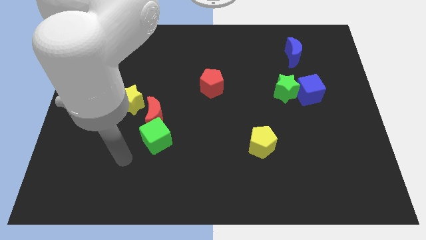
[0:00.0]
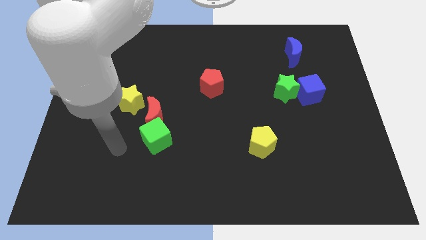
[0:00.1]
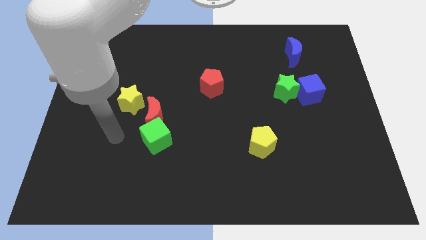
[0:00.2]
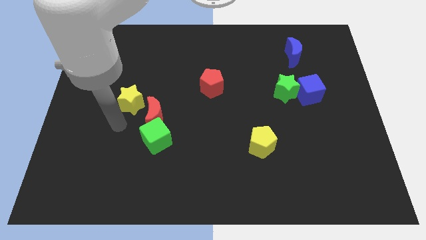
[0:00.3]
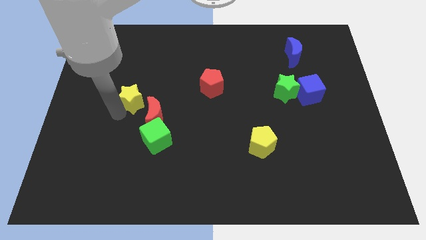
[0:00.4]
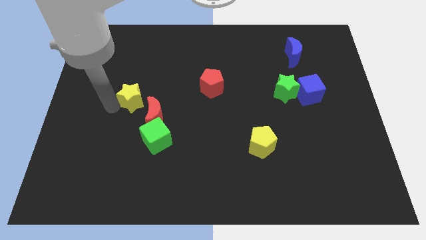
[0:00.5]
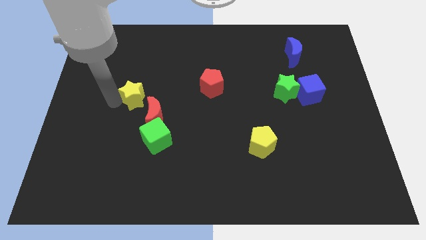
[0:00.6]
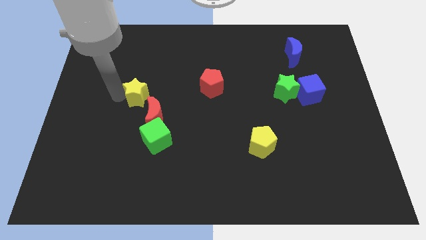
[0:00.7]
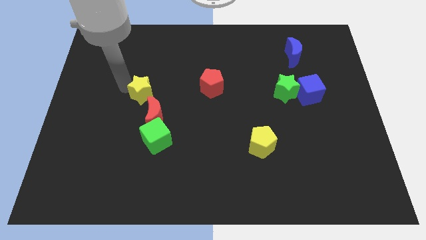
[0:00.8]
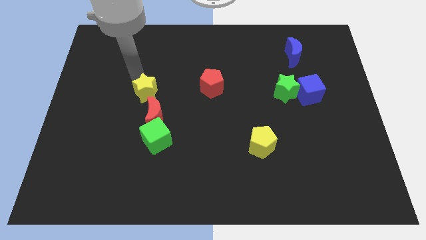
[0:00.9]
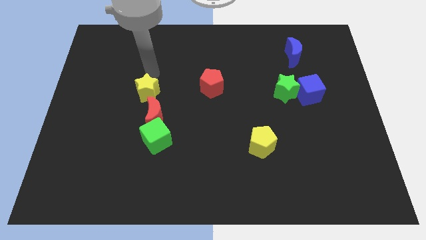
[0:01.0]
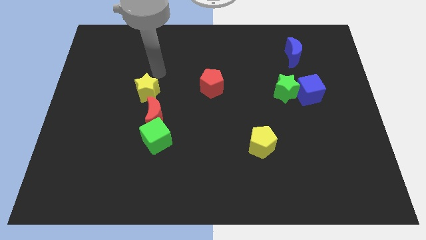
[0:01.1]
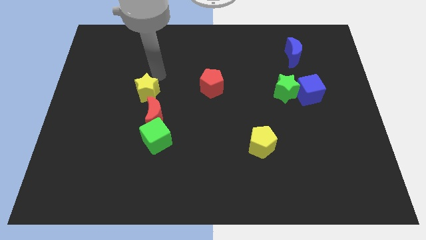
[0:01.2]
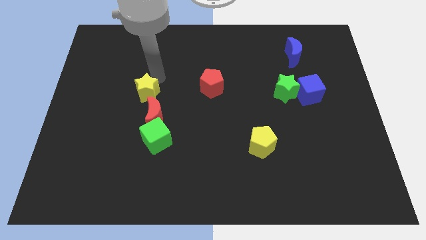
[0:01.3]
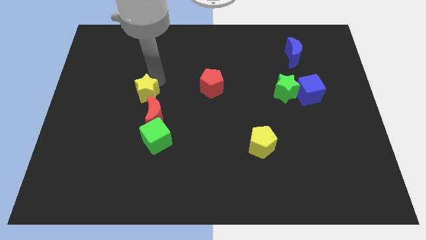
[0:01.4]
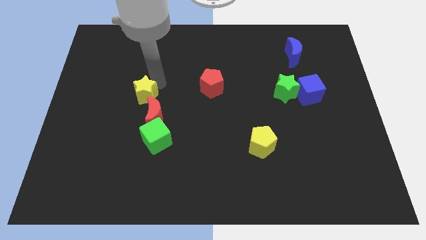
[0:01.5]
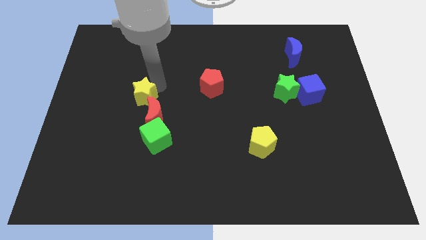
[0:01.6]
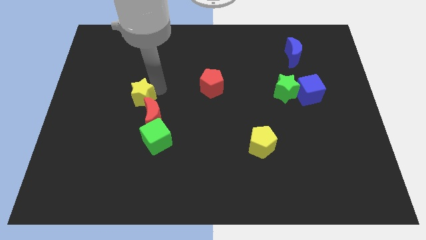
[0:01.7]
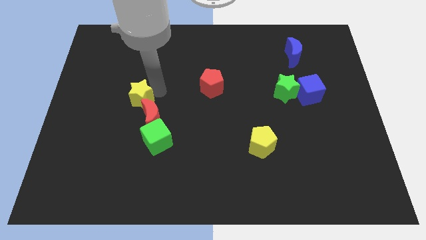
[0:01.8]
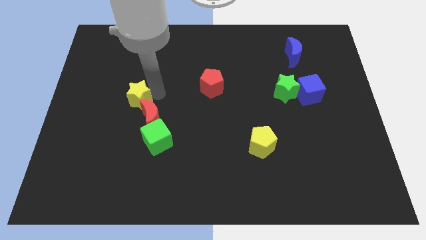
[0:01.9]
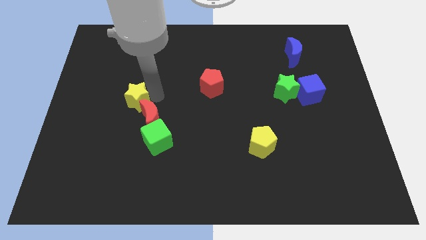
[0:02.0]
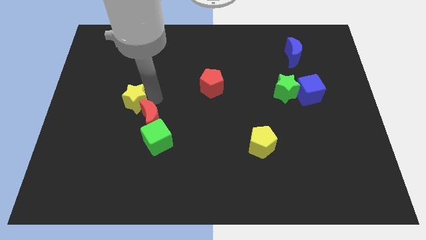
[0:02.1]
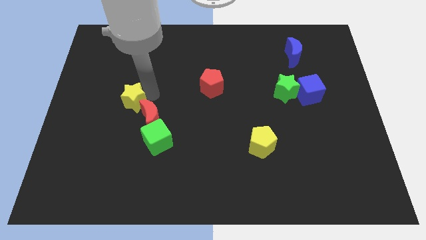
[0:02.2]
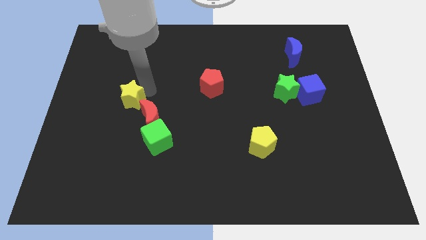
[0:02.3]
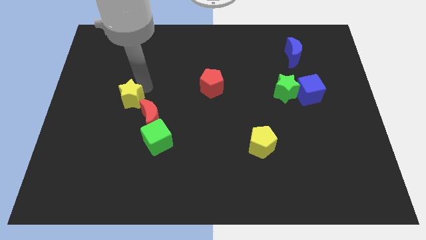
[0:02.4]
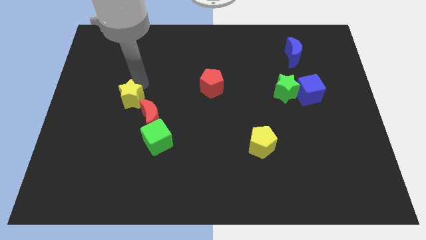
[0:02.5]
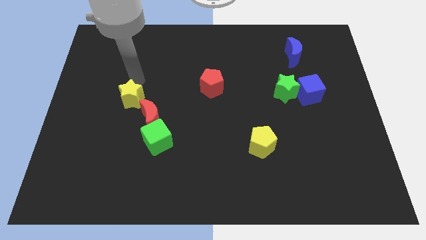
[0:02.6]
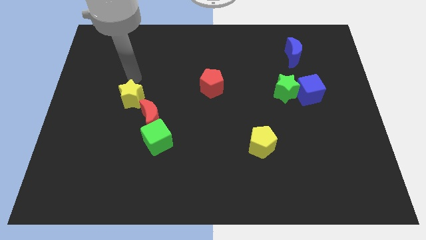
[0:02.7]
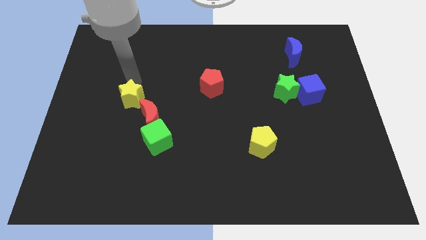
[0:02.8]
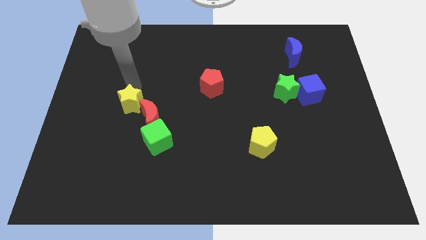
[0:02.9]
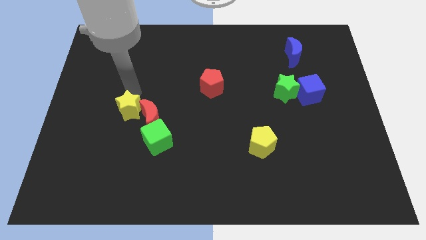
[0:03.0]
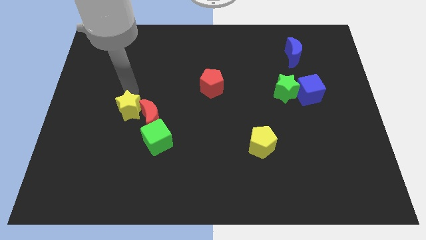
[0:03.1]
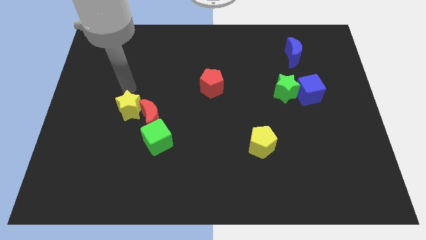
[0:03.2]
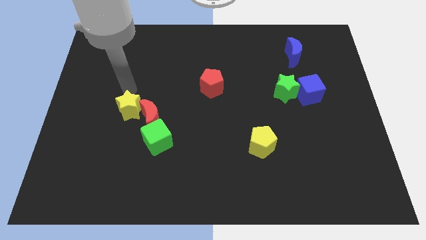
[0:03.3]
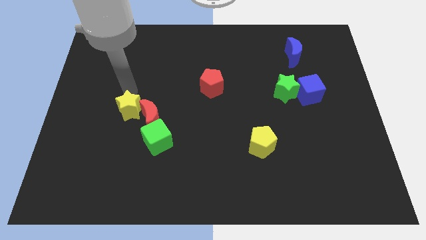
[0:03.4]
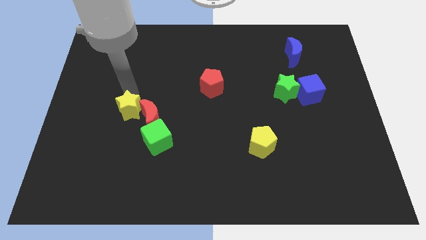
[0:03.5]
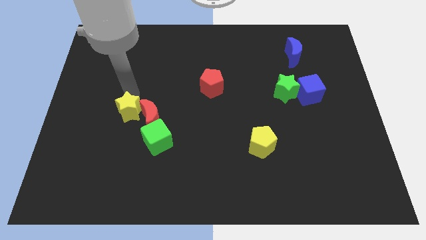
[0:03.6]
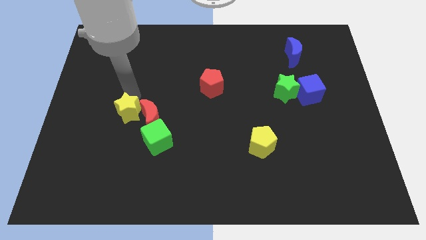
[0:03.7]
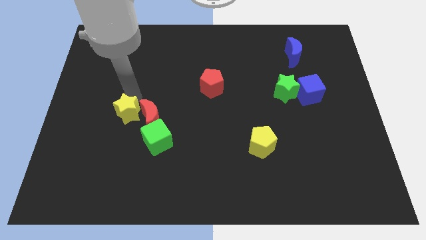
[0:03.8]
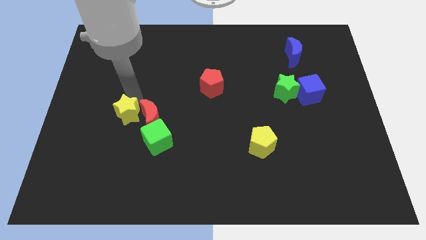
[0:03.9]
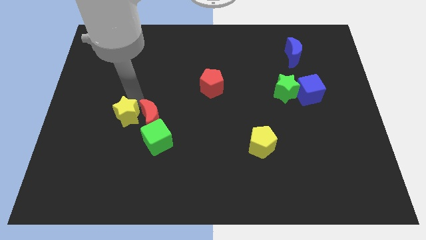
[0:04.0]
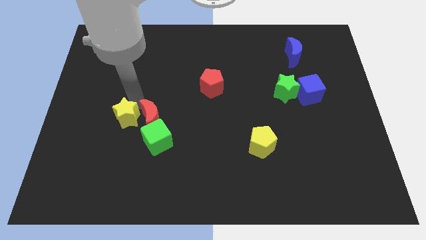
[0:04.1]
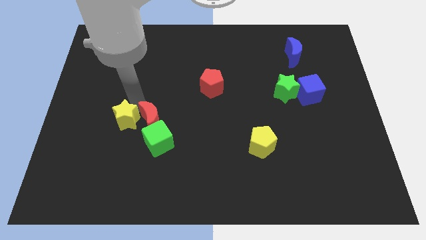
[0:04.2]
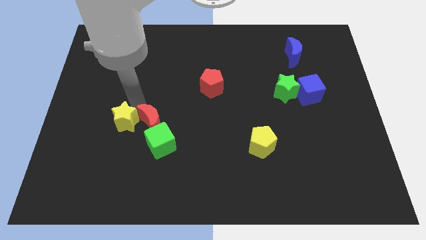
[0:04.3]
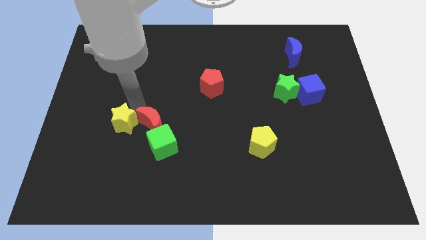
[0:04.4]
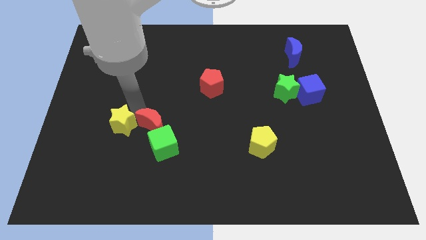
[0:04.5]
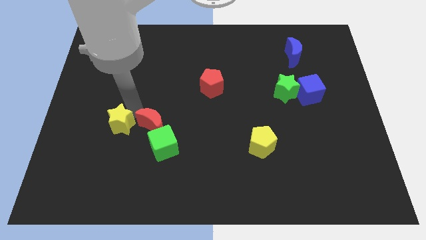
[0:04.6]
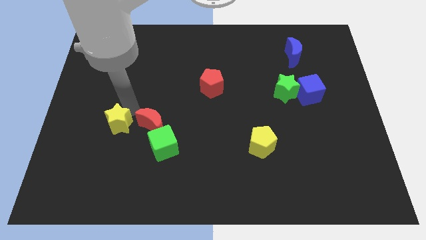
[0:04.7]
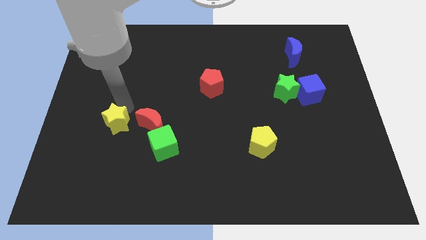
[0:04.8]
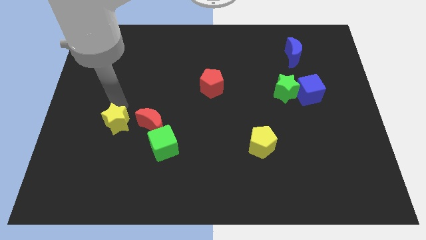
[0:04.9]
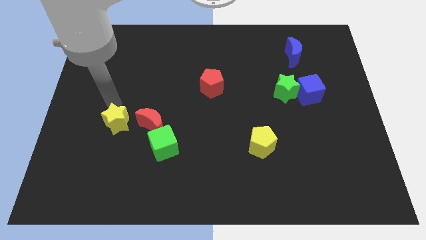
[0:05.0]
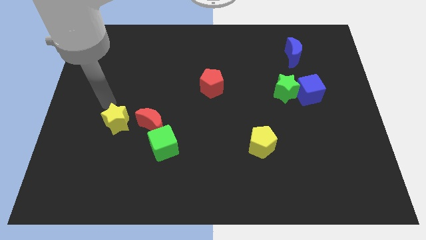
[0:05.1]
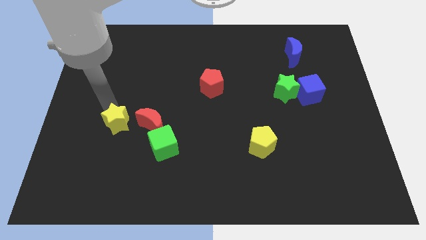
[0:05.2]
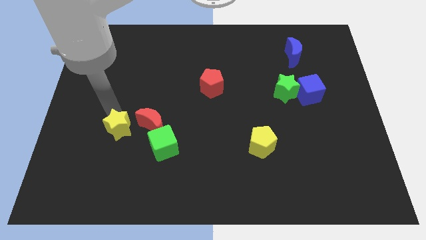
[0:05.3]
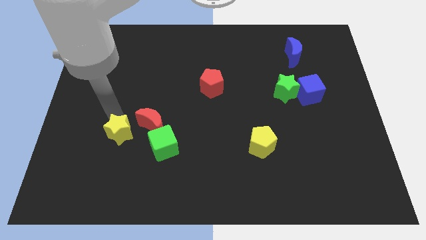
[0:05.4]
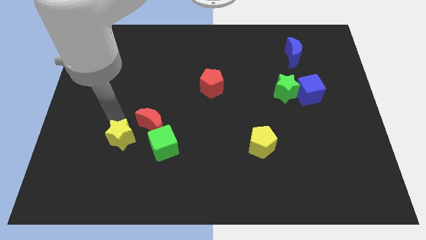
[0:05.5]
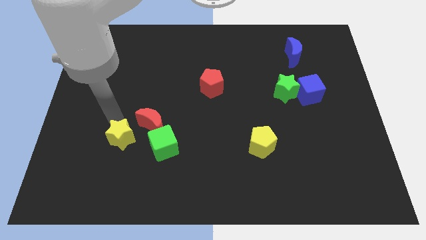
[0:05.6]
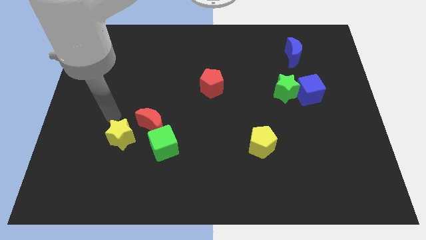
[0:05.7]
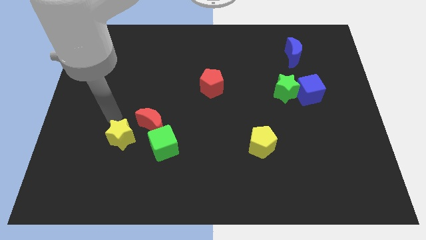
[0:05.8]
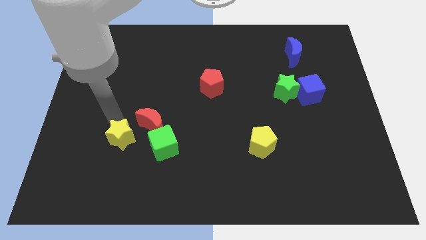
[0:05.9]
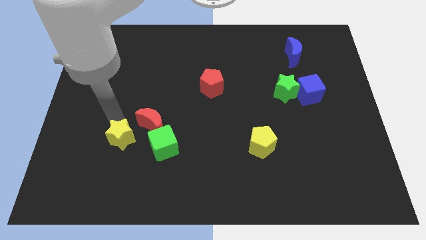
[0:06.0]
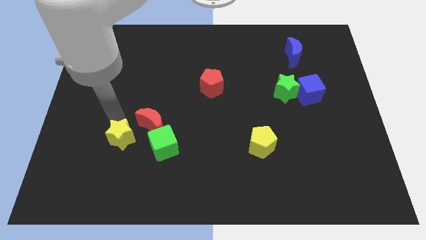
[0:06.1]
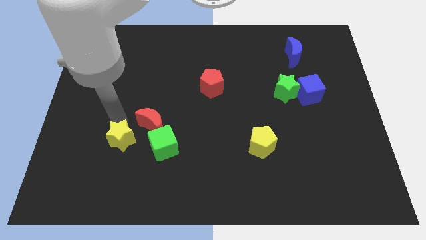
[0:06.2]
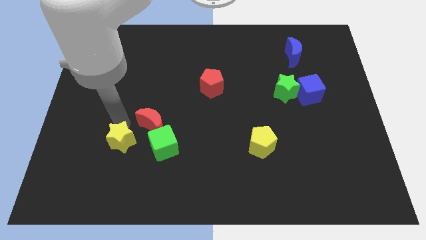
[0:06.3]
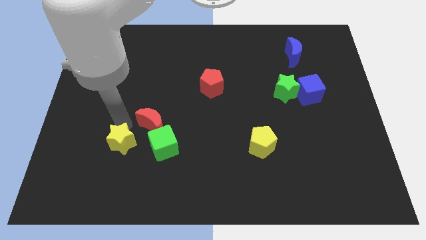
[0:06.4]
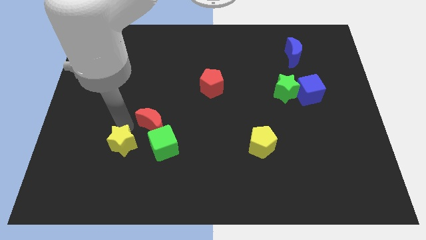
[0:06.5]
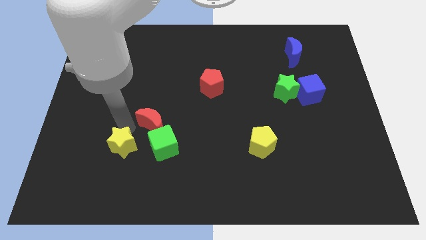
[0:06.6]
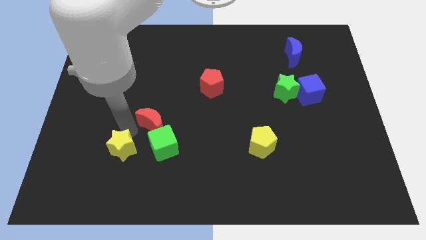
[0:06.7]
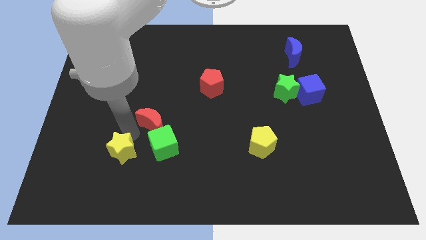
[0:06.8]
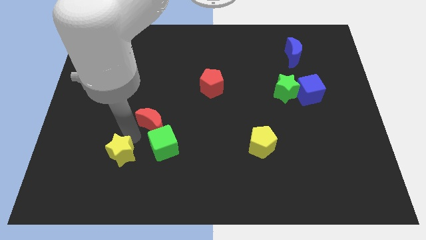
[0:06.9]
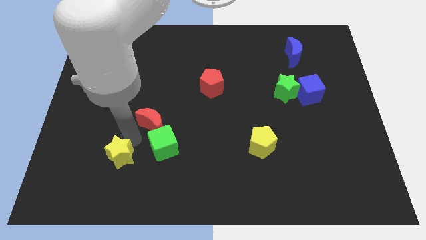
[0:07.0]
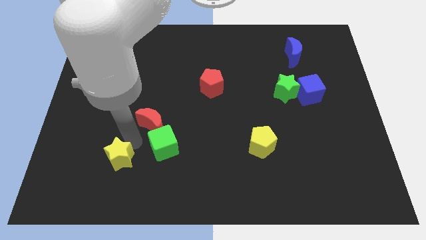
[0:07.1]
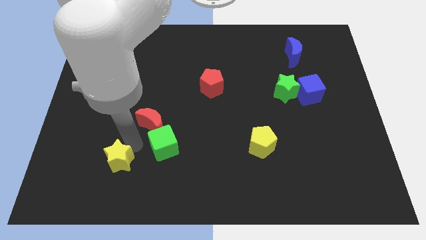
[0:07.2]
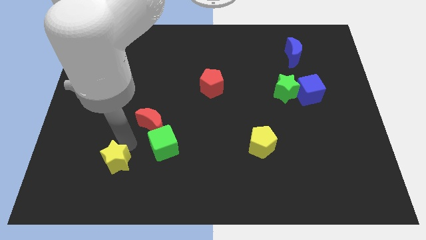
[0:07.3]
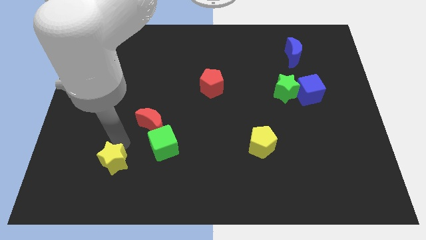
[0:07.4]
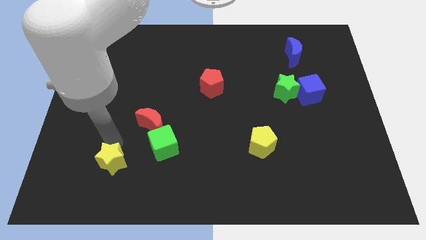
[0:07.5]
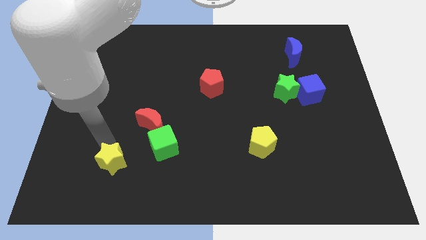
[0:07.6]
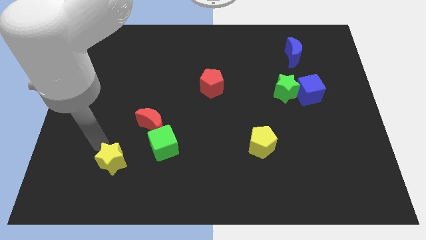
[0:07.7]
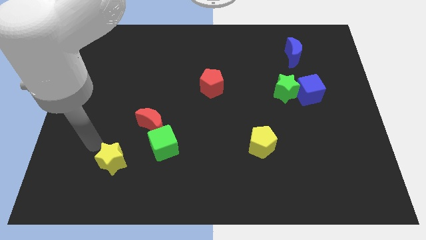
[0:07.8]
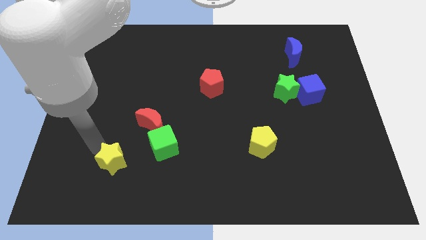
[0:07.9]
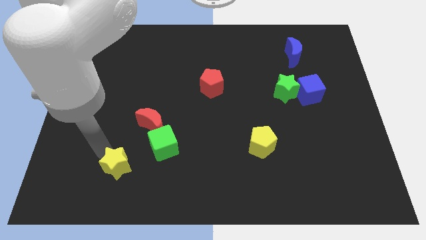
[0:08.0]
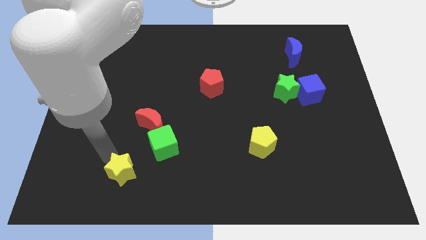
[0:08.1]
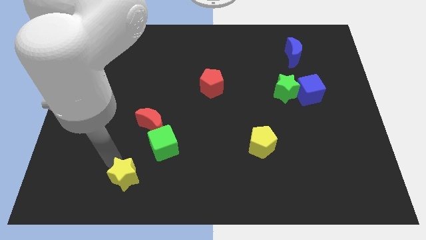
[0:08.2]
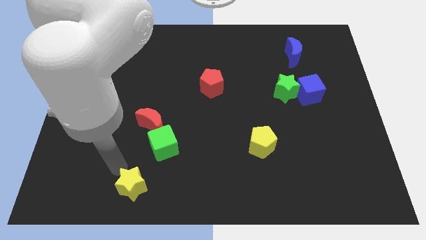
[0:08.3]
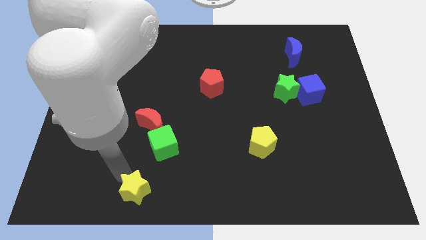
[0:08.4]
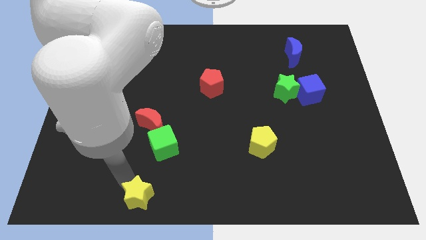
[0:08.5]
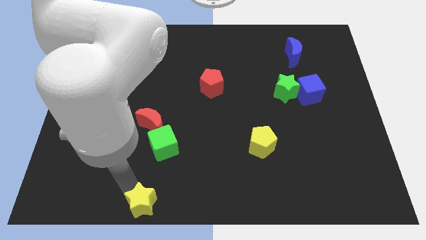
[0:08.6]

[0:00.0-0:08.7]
put the yellow star to the bottom
